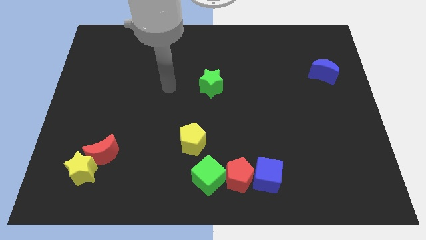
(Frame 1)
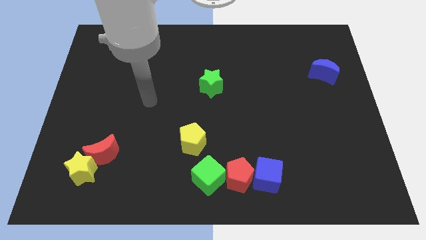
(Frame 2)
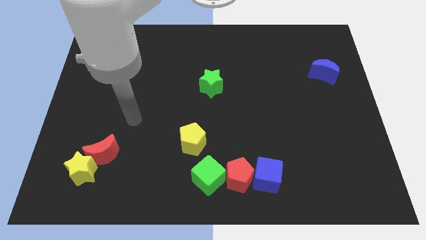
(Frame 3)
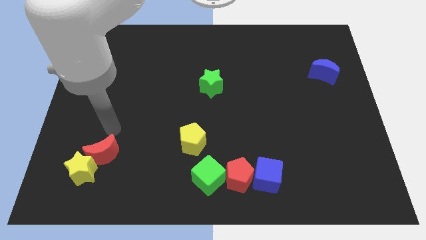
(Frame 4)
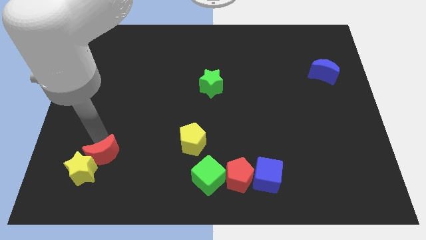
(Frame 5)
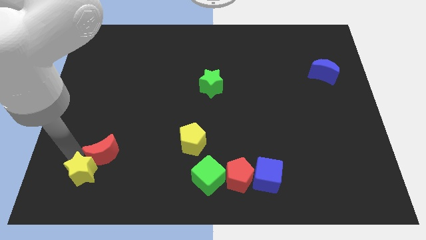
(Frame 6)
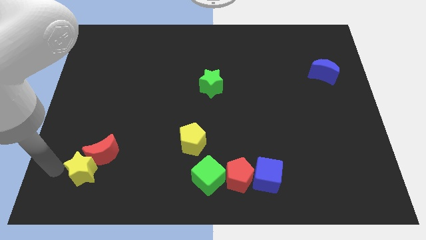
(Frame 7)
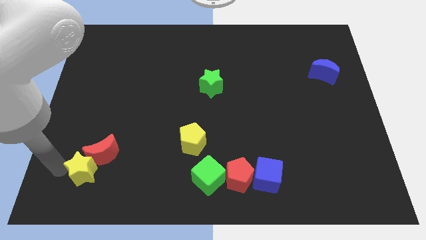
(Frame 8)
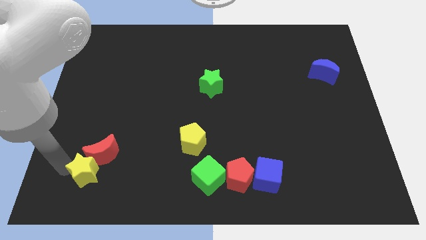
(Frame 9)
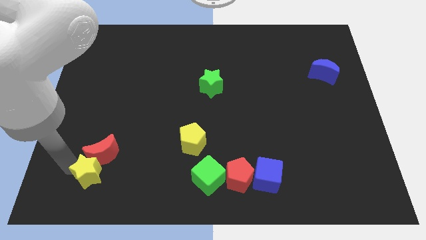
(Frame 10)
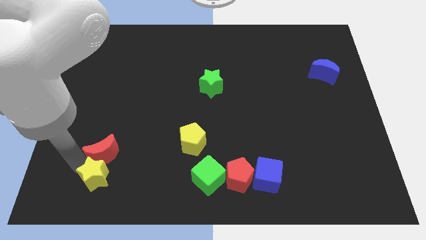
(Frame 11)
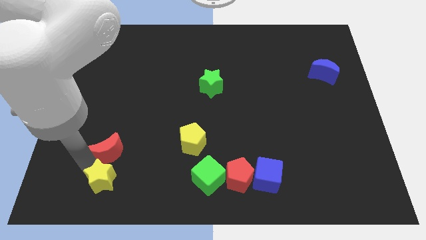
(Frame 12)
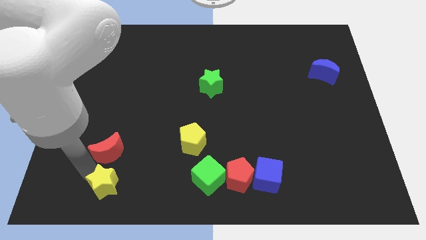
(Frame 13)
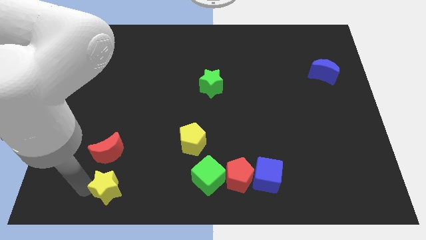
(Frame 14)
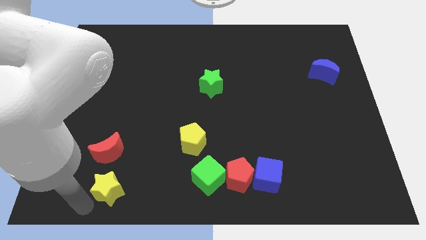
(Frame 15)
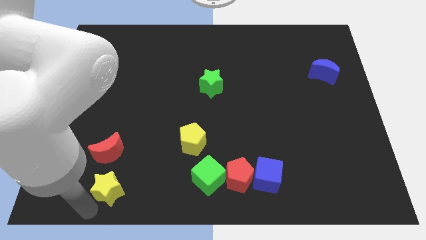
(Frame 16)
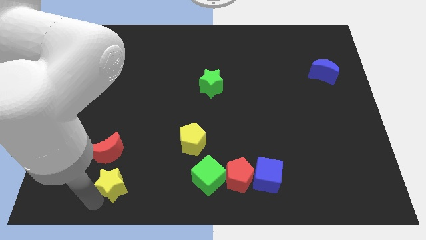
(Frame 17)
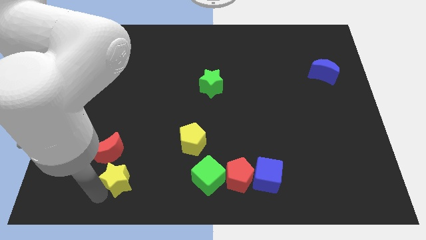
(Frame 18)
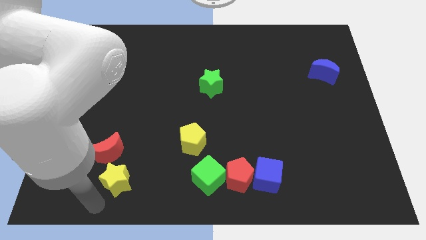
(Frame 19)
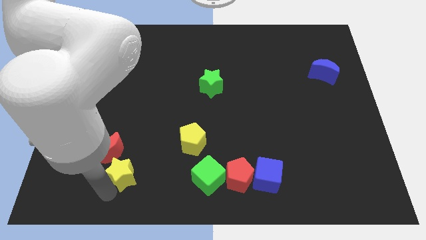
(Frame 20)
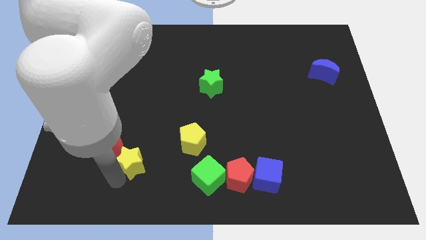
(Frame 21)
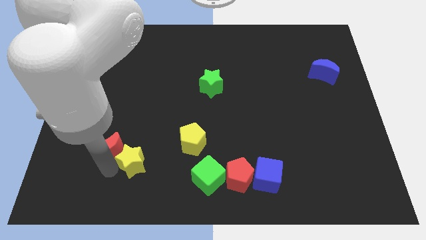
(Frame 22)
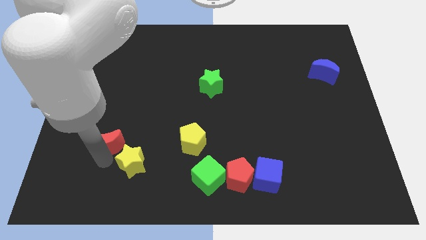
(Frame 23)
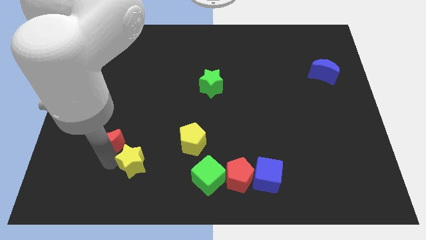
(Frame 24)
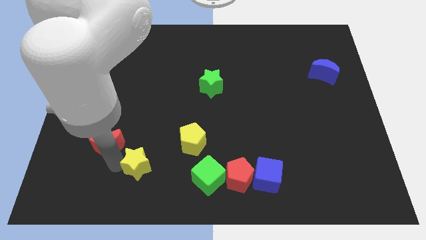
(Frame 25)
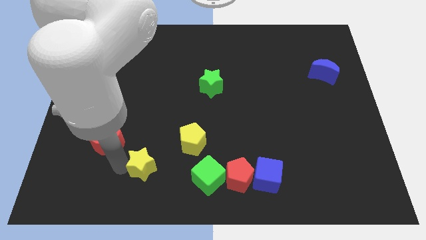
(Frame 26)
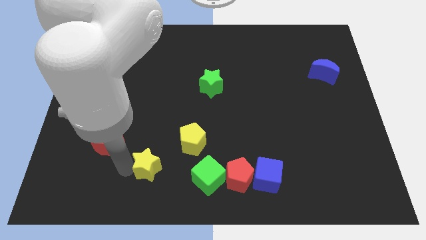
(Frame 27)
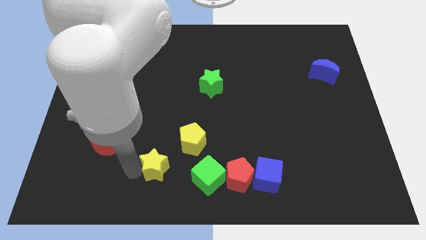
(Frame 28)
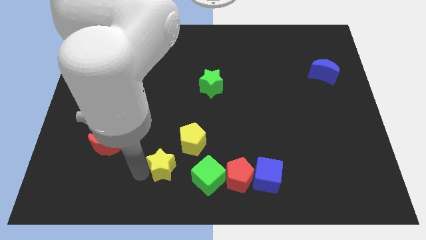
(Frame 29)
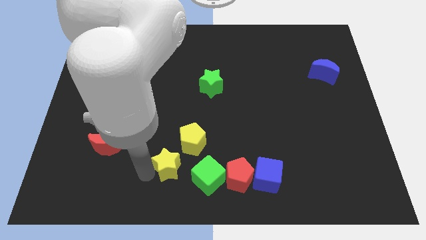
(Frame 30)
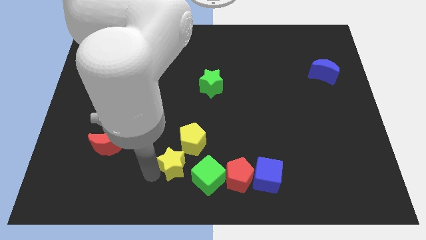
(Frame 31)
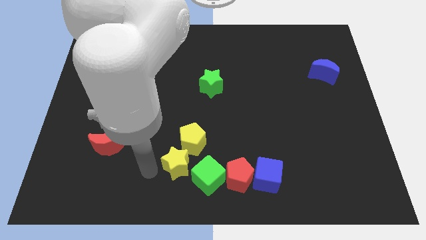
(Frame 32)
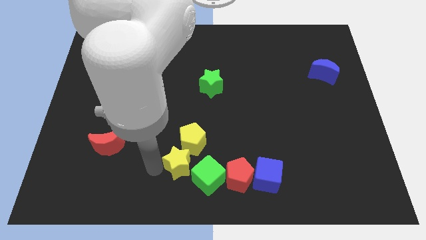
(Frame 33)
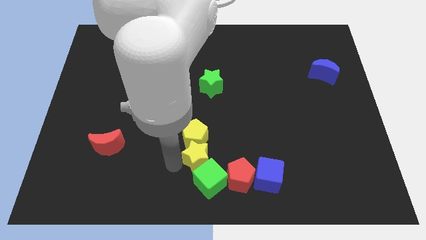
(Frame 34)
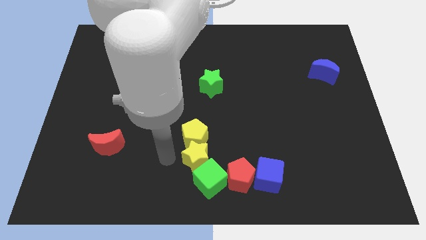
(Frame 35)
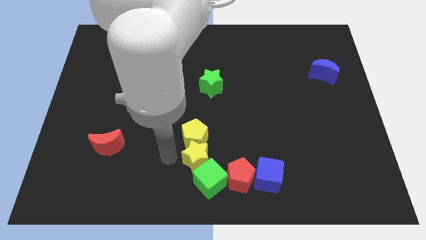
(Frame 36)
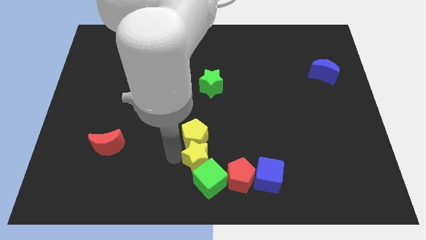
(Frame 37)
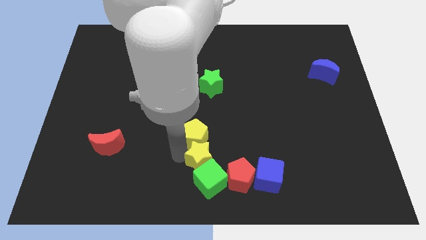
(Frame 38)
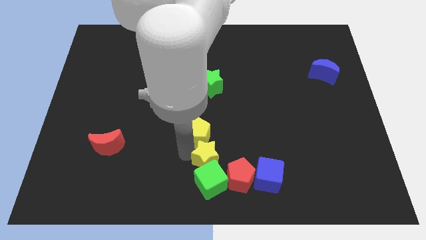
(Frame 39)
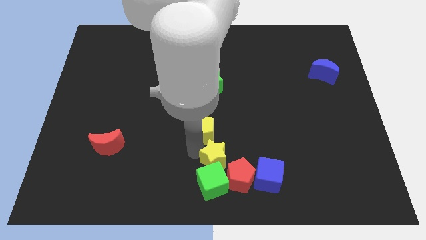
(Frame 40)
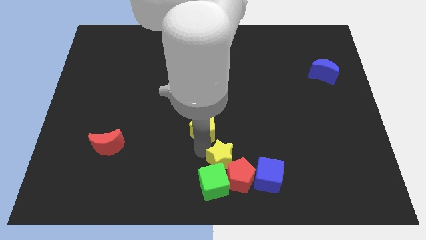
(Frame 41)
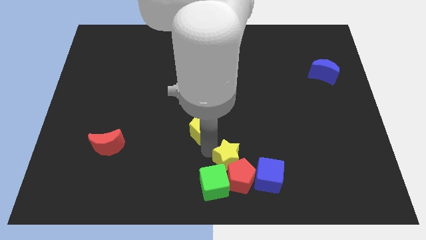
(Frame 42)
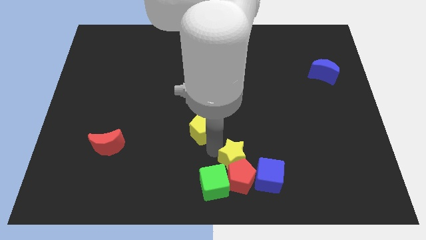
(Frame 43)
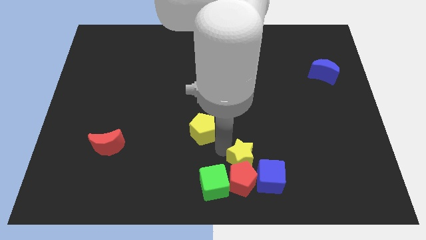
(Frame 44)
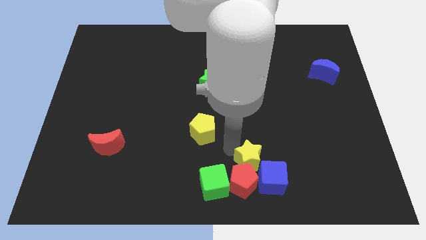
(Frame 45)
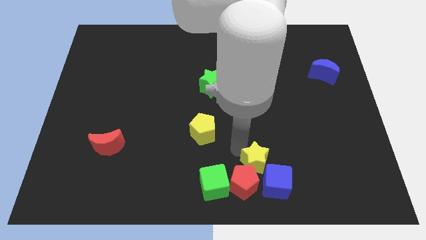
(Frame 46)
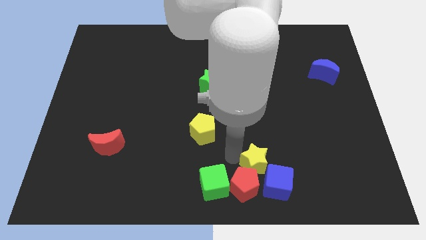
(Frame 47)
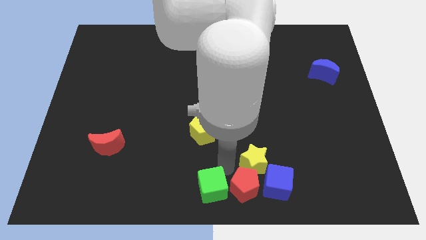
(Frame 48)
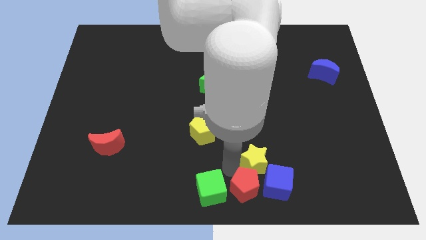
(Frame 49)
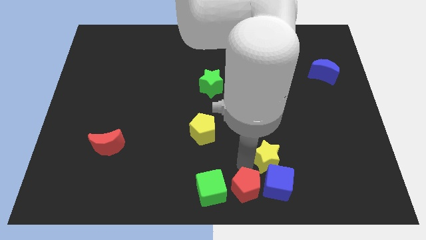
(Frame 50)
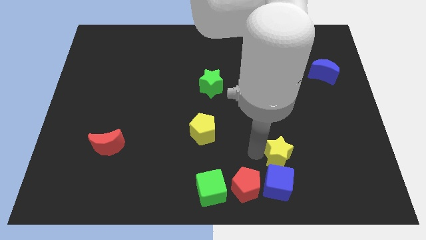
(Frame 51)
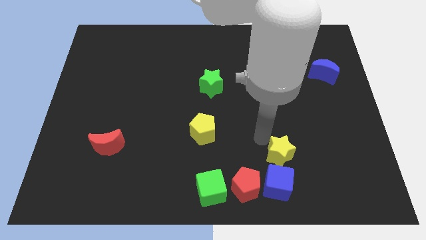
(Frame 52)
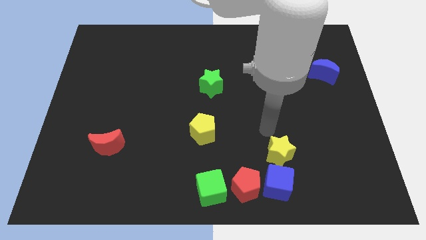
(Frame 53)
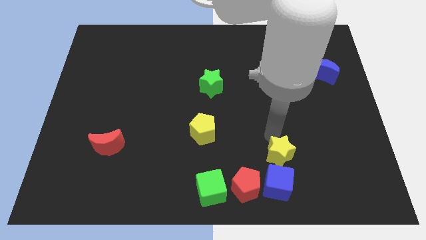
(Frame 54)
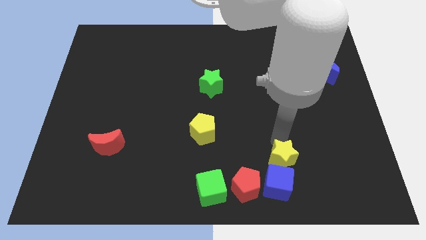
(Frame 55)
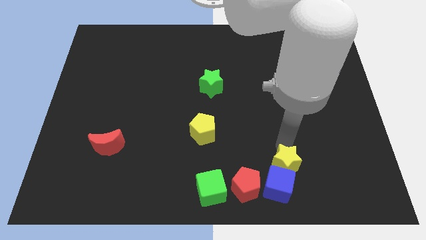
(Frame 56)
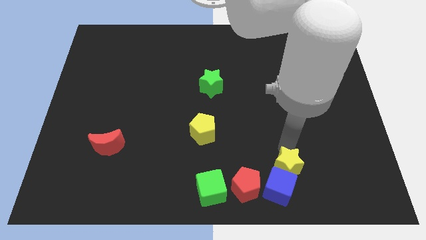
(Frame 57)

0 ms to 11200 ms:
slide the yellow star right of the red pentagon
